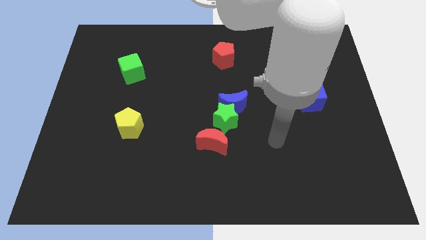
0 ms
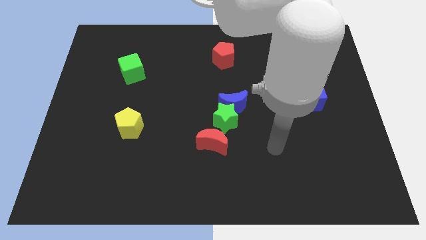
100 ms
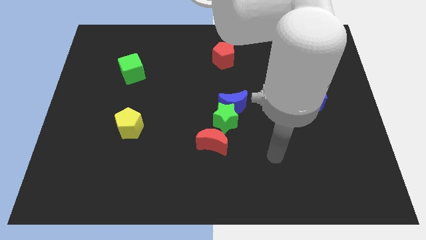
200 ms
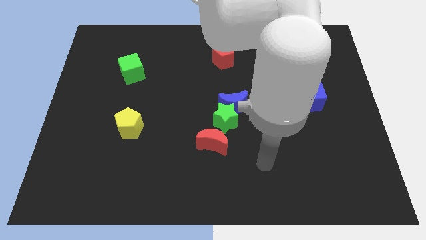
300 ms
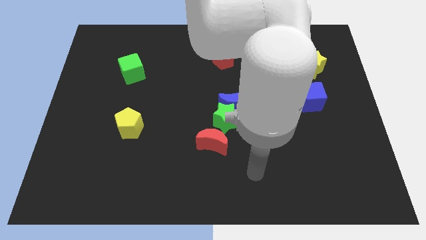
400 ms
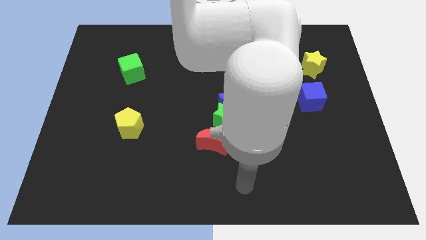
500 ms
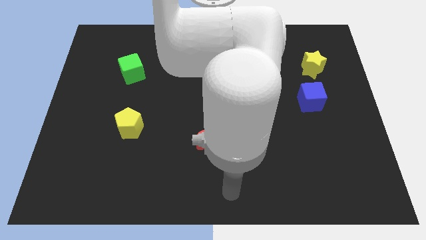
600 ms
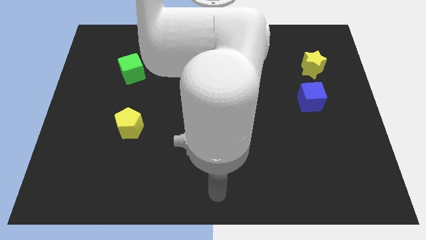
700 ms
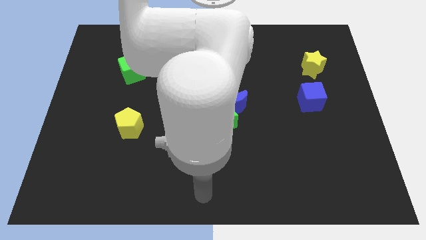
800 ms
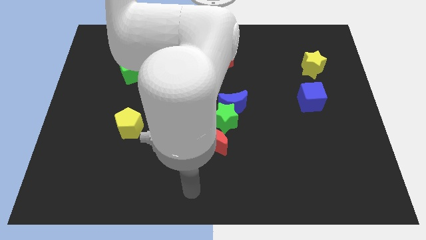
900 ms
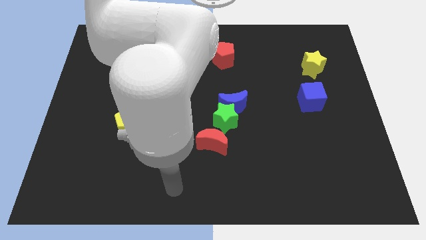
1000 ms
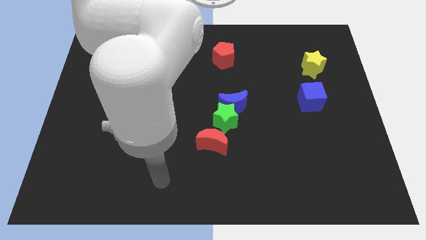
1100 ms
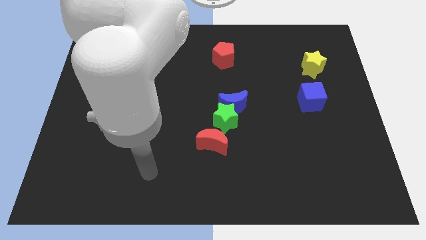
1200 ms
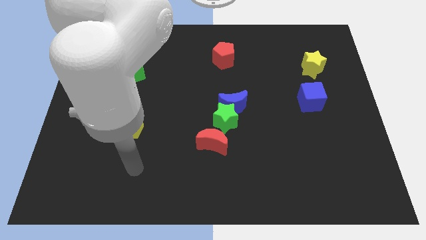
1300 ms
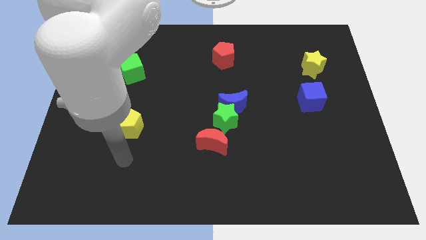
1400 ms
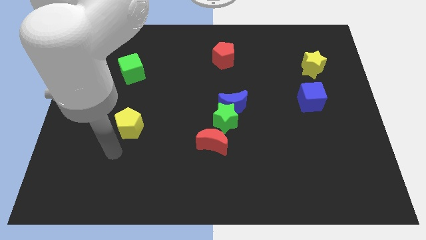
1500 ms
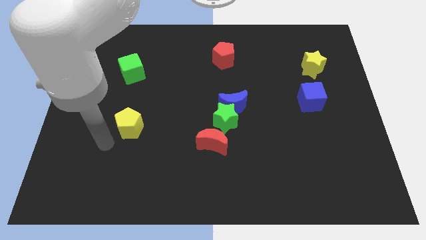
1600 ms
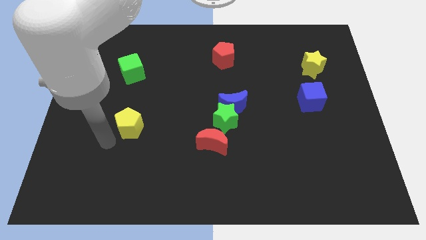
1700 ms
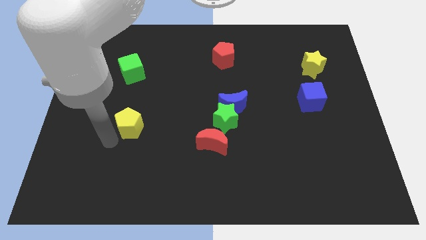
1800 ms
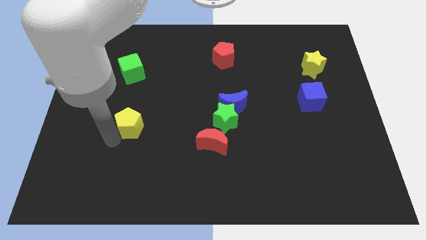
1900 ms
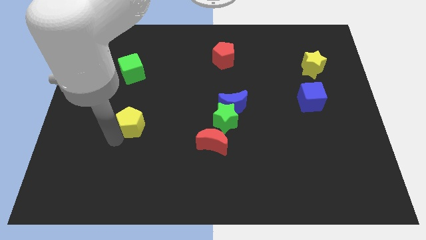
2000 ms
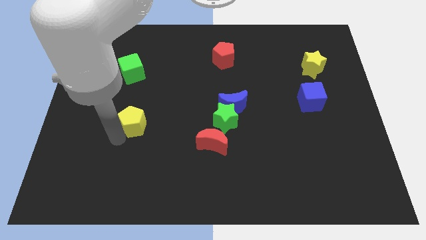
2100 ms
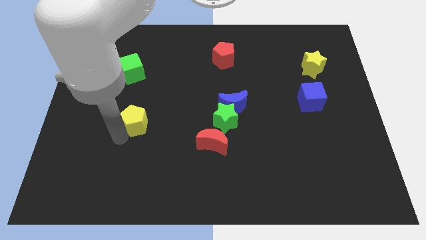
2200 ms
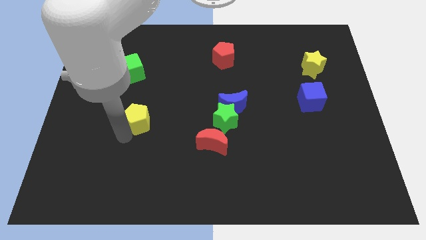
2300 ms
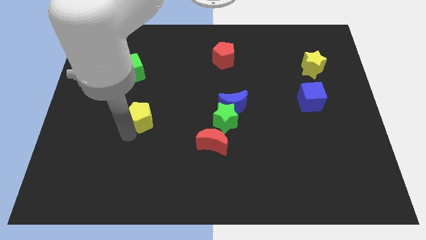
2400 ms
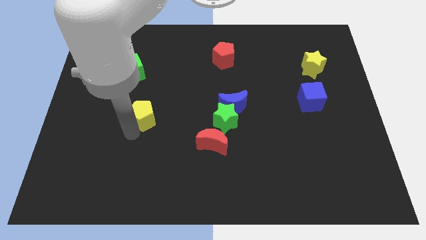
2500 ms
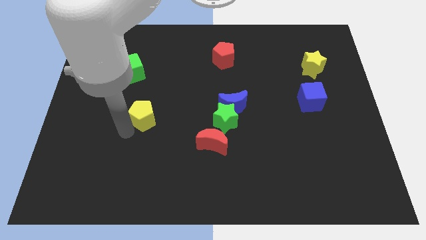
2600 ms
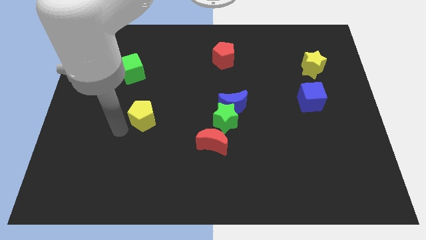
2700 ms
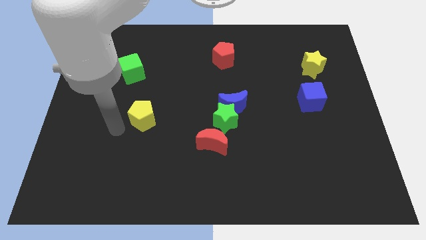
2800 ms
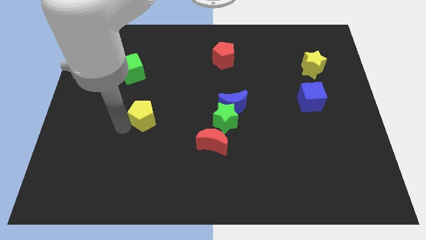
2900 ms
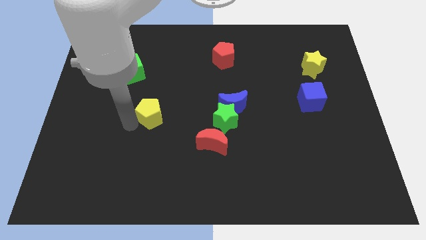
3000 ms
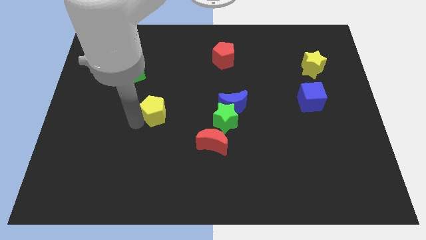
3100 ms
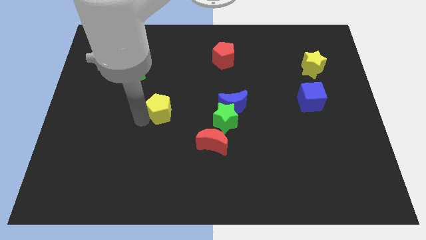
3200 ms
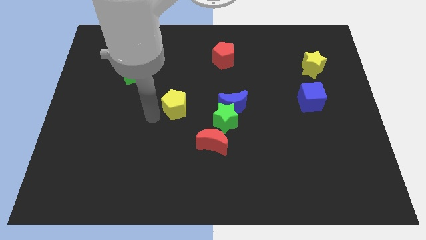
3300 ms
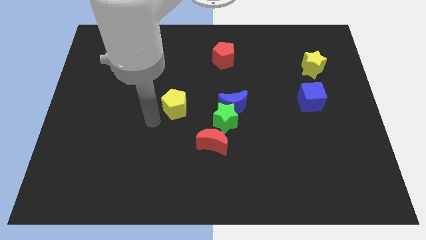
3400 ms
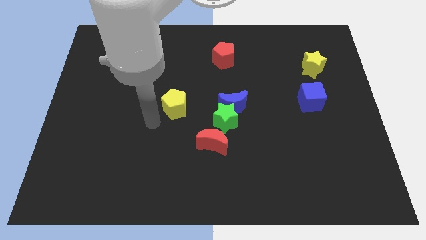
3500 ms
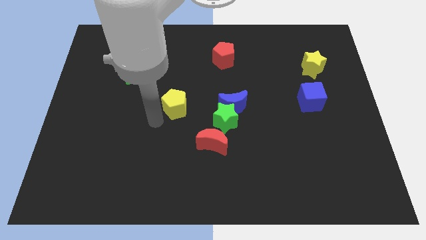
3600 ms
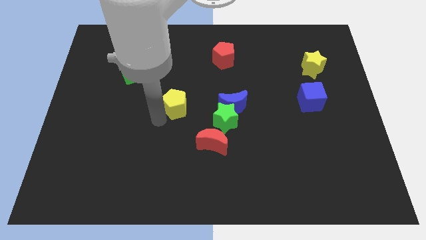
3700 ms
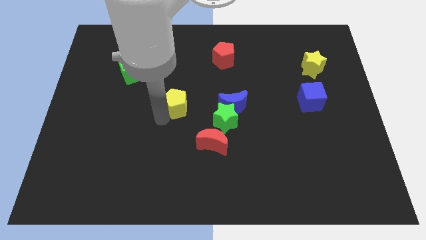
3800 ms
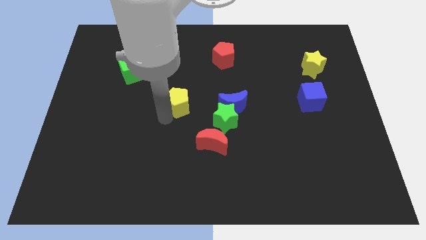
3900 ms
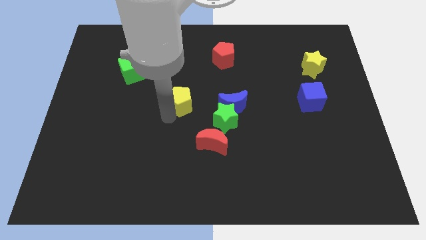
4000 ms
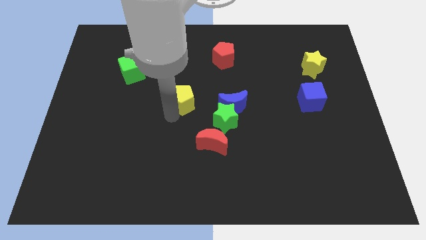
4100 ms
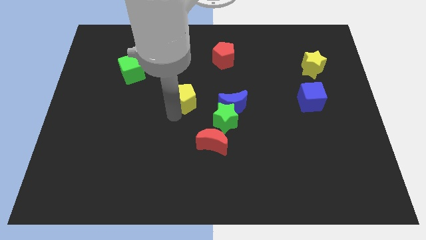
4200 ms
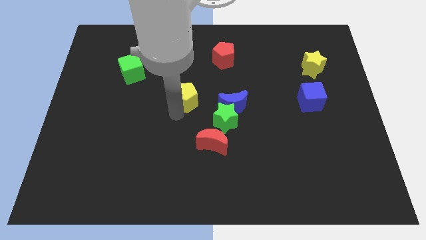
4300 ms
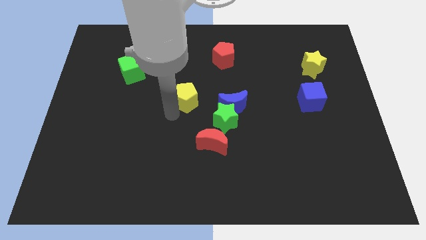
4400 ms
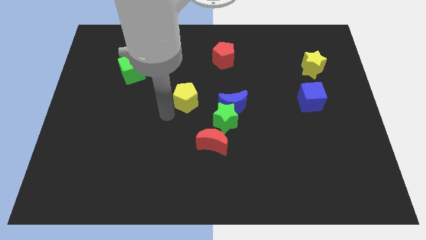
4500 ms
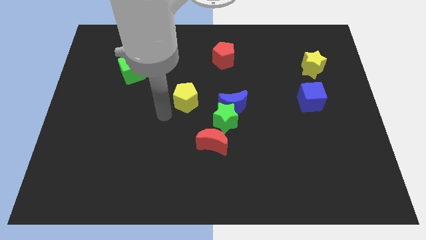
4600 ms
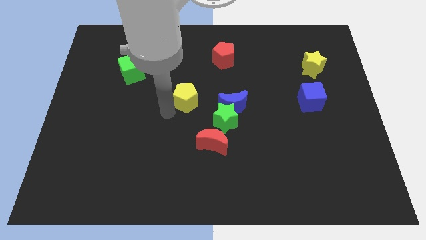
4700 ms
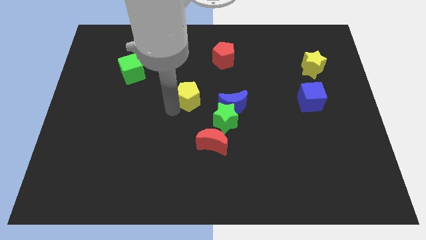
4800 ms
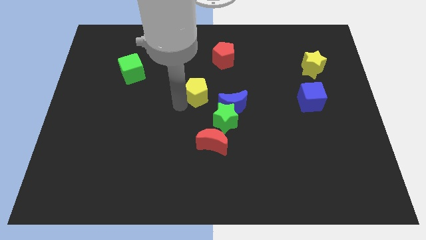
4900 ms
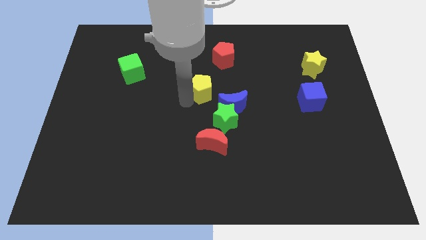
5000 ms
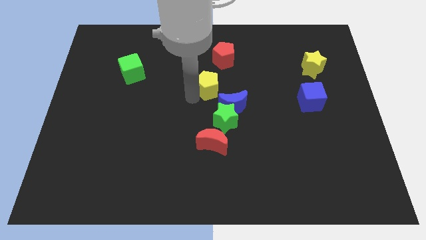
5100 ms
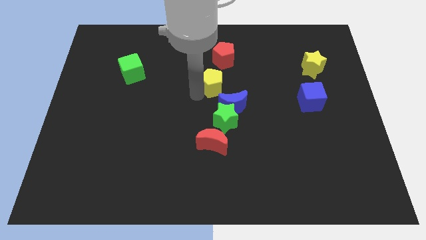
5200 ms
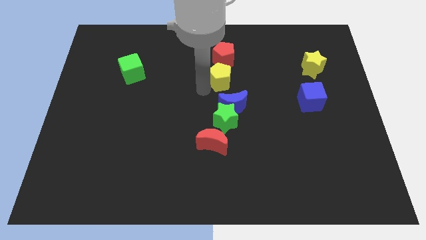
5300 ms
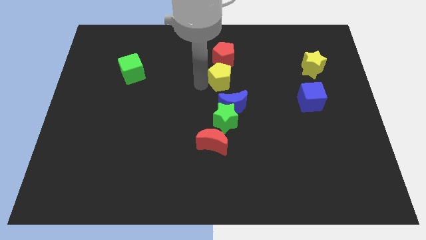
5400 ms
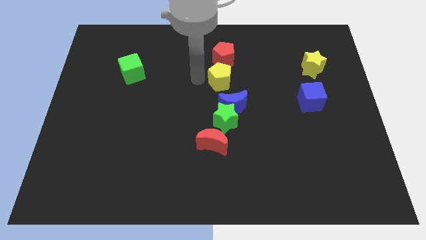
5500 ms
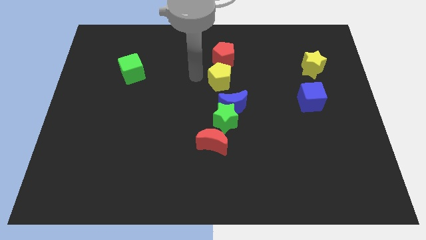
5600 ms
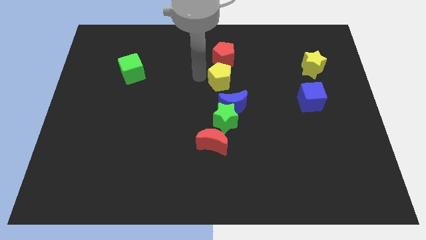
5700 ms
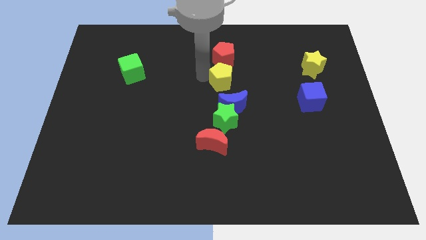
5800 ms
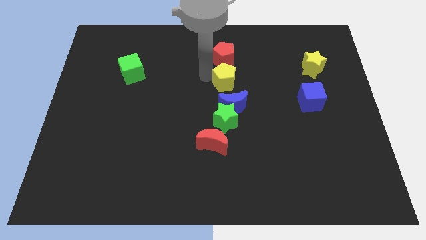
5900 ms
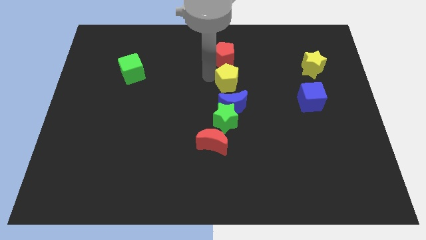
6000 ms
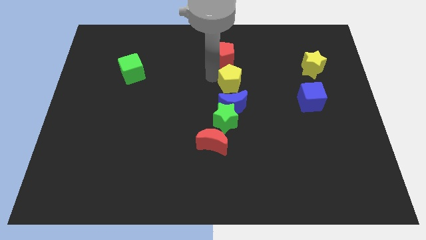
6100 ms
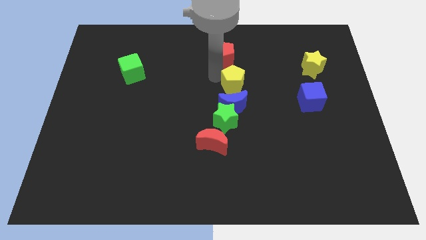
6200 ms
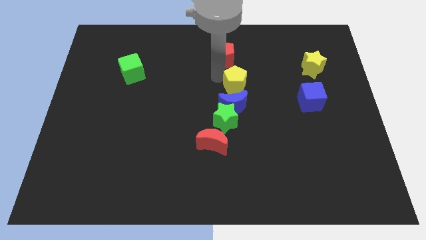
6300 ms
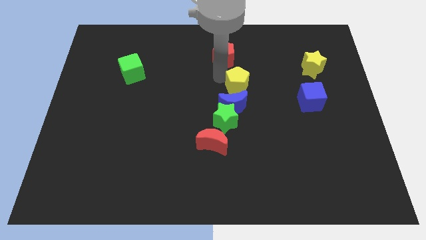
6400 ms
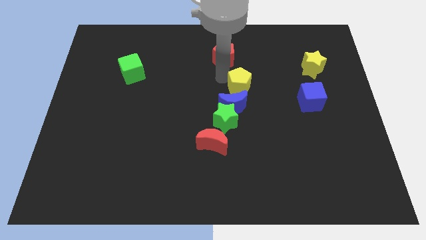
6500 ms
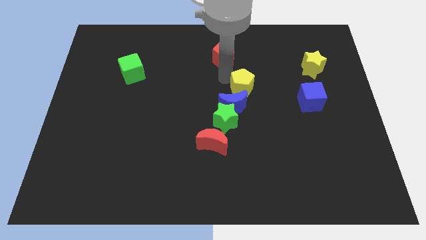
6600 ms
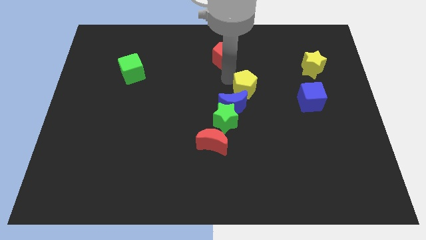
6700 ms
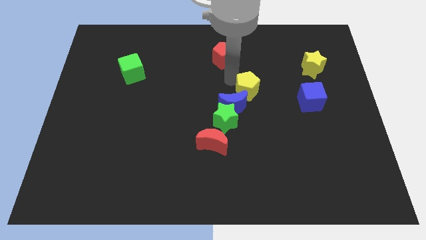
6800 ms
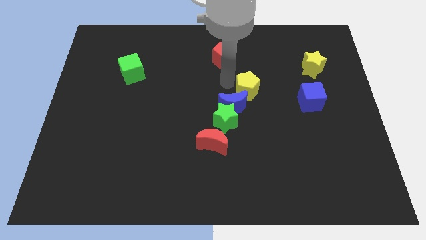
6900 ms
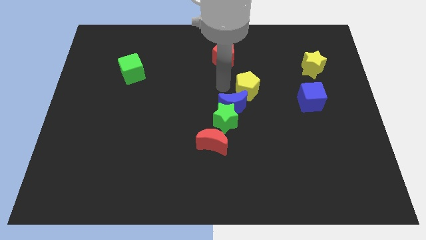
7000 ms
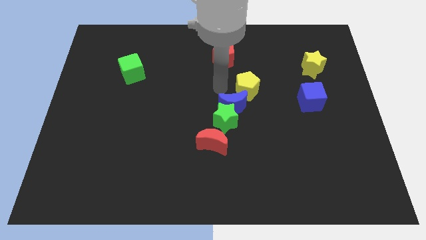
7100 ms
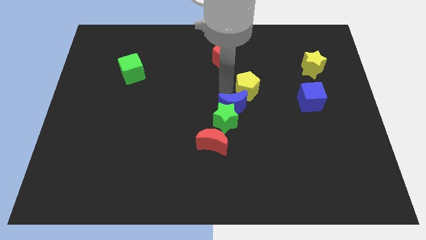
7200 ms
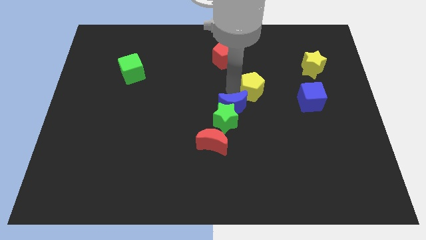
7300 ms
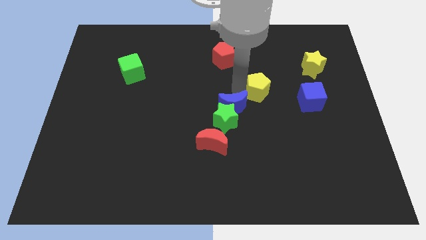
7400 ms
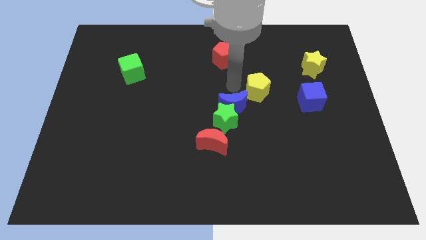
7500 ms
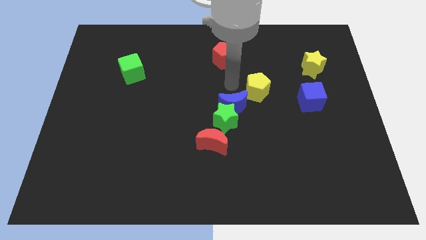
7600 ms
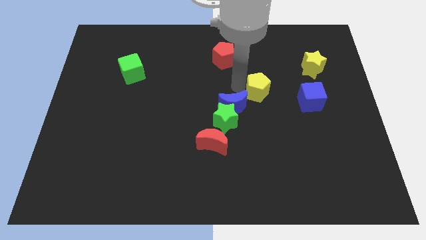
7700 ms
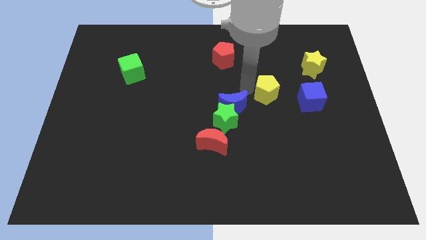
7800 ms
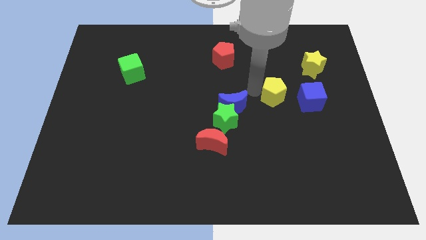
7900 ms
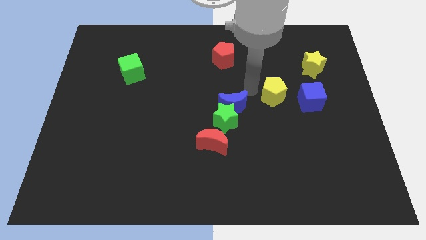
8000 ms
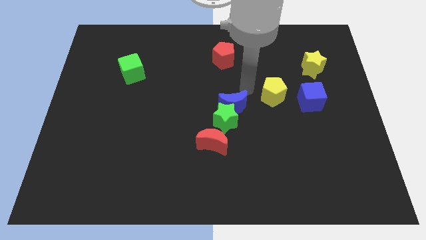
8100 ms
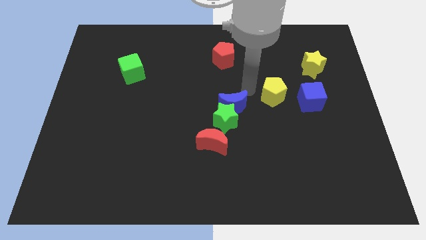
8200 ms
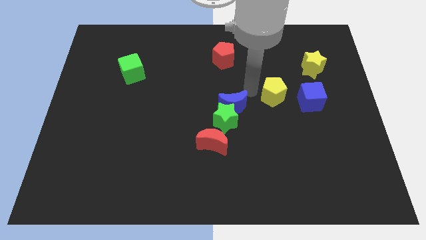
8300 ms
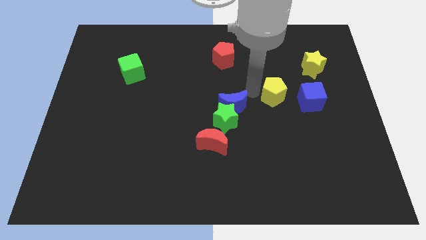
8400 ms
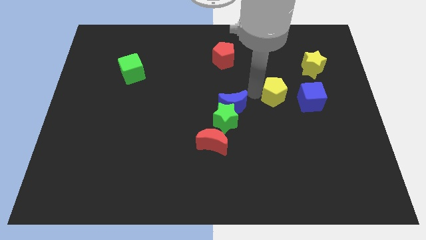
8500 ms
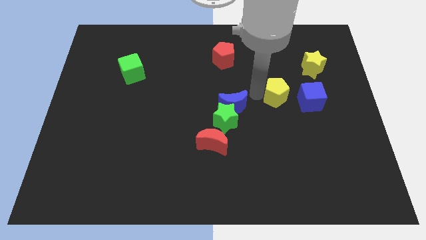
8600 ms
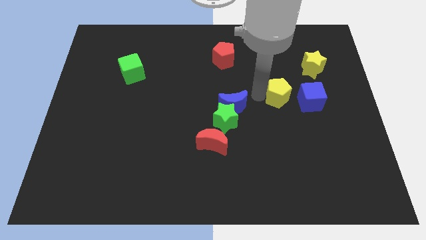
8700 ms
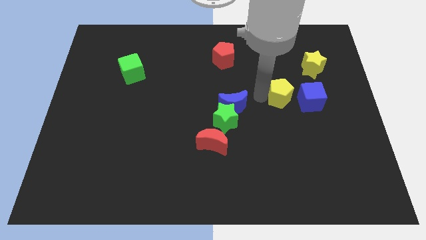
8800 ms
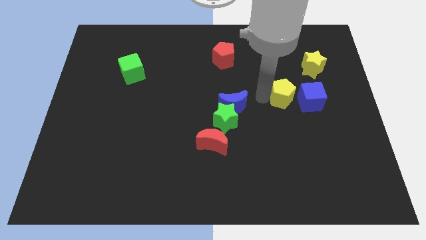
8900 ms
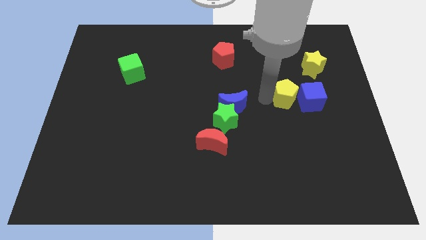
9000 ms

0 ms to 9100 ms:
move the yellow pentagon next to the blue cube
